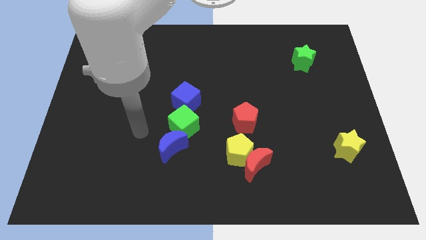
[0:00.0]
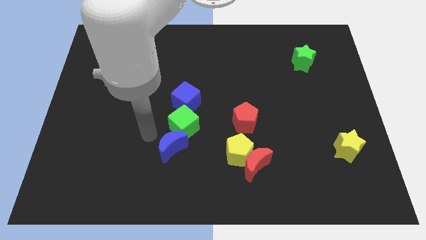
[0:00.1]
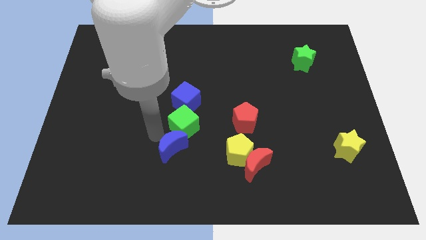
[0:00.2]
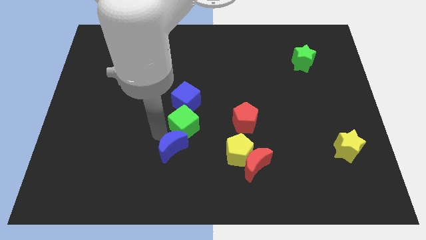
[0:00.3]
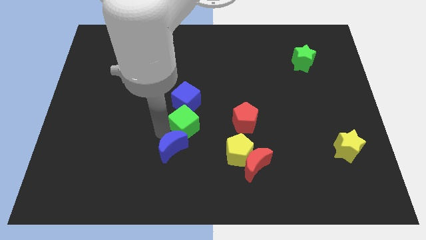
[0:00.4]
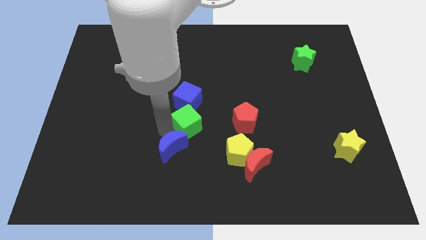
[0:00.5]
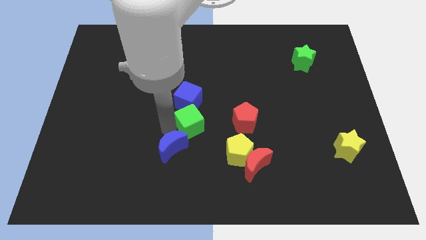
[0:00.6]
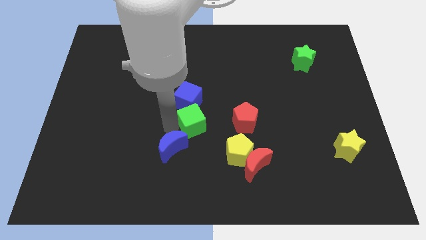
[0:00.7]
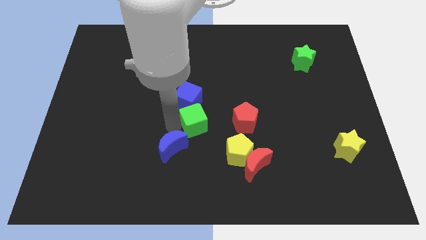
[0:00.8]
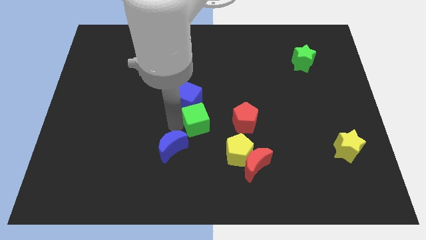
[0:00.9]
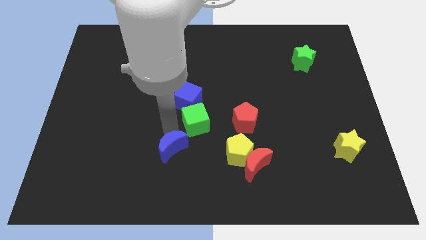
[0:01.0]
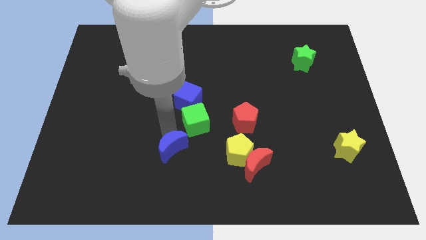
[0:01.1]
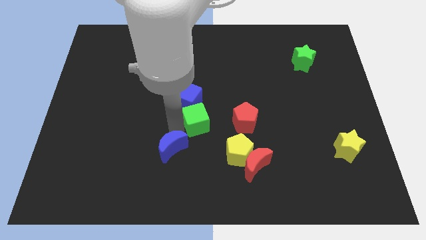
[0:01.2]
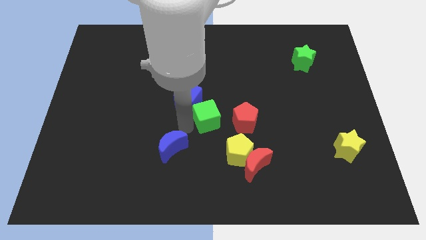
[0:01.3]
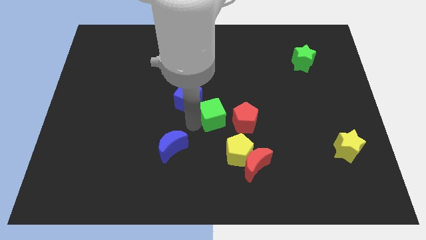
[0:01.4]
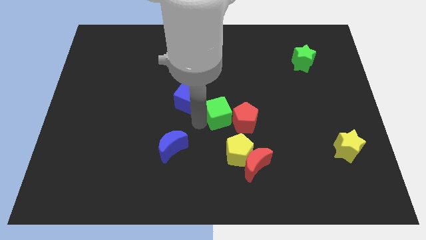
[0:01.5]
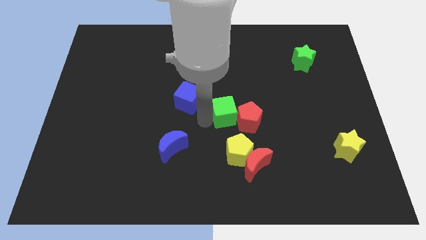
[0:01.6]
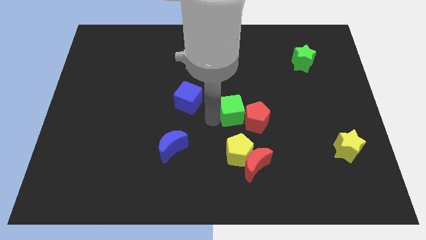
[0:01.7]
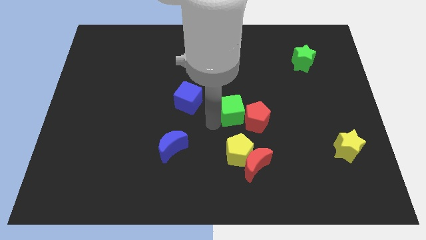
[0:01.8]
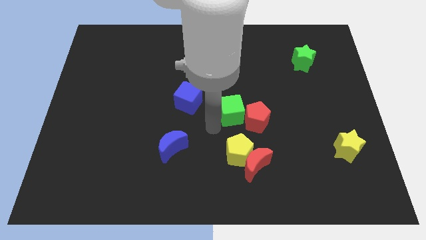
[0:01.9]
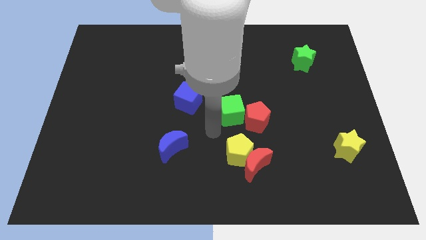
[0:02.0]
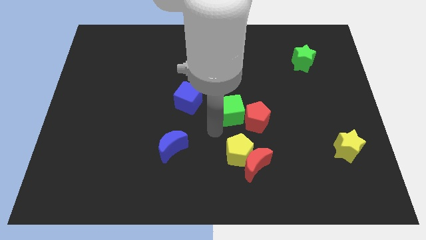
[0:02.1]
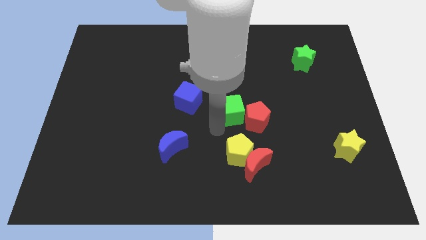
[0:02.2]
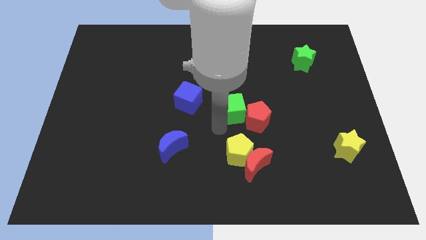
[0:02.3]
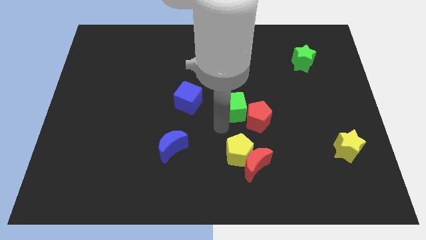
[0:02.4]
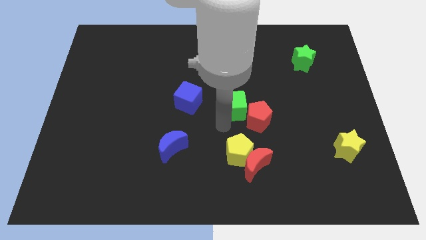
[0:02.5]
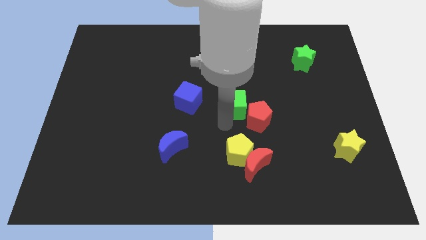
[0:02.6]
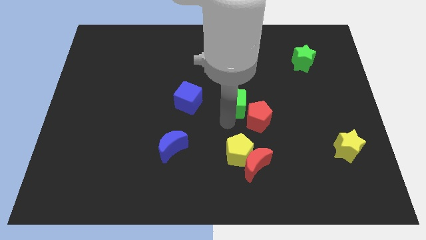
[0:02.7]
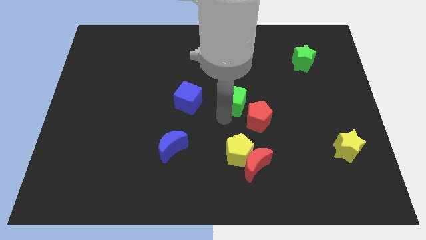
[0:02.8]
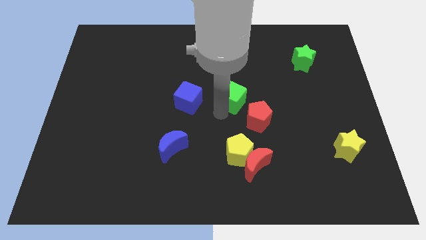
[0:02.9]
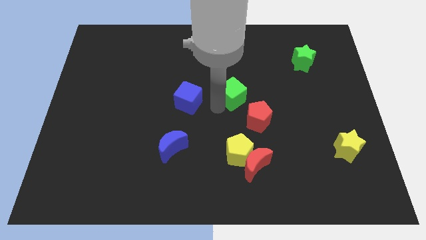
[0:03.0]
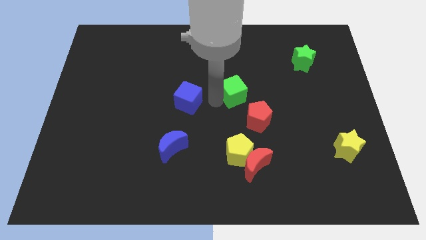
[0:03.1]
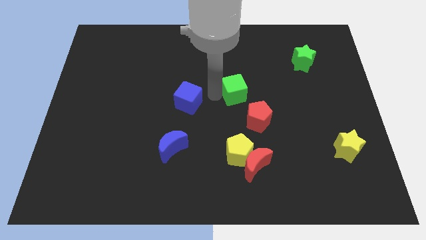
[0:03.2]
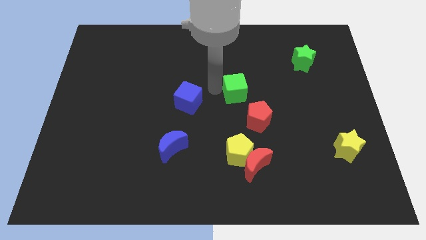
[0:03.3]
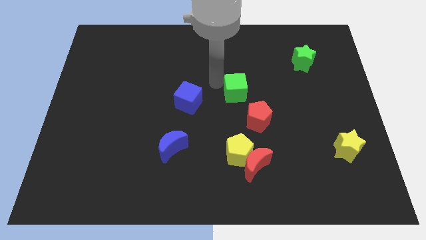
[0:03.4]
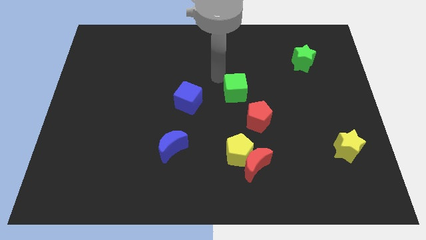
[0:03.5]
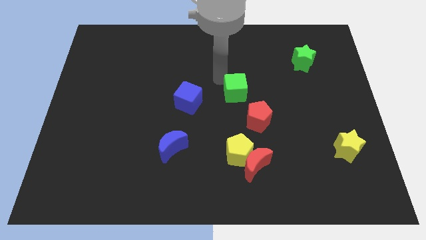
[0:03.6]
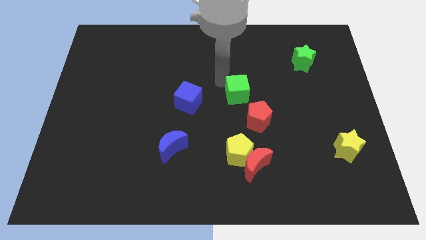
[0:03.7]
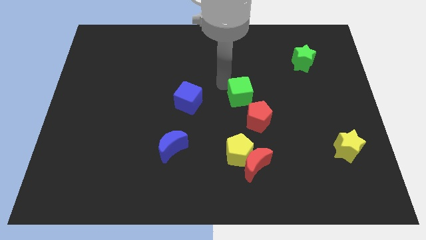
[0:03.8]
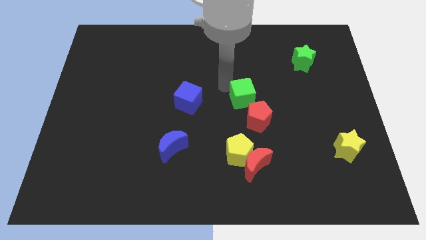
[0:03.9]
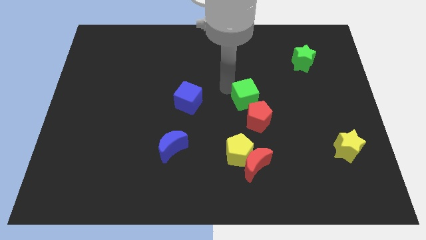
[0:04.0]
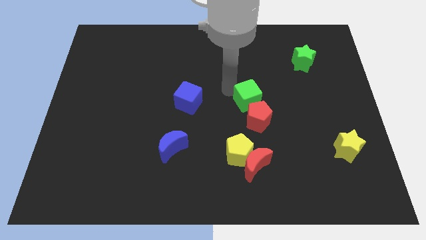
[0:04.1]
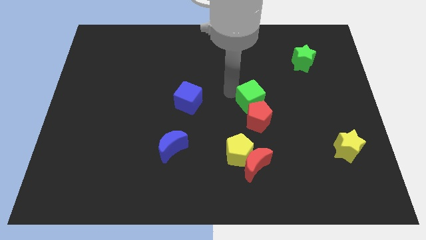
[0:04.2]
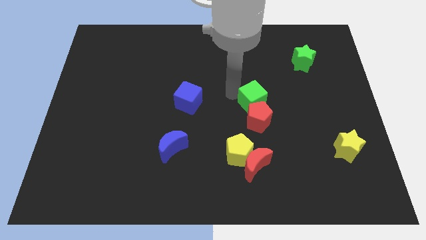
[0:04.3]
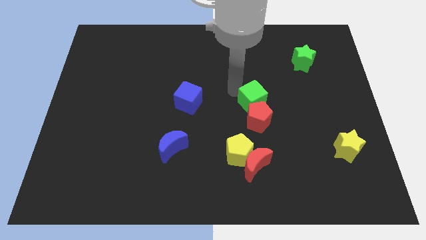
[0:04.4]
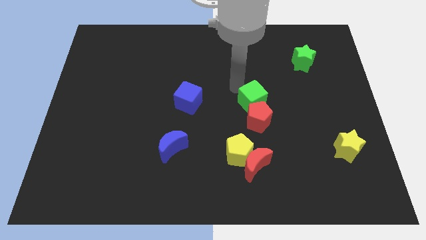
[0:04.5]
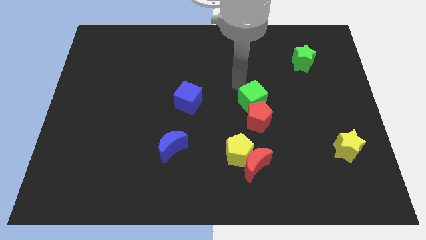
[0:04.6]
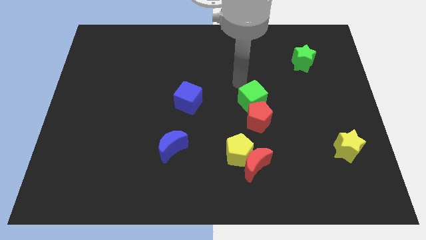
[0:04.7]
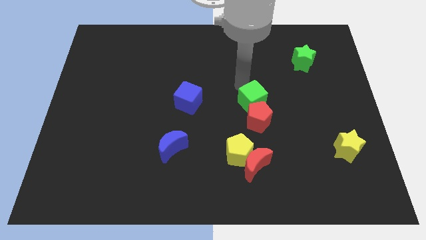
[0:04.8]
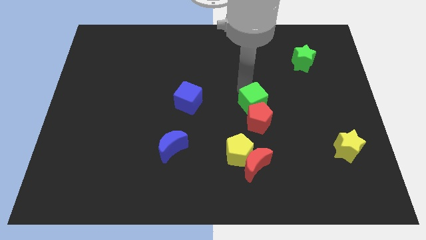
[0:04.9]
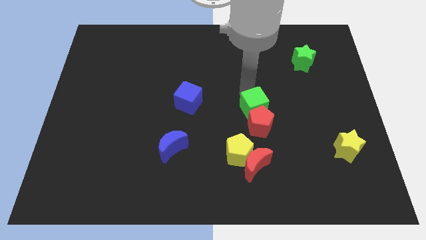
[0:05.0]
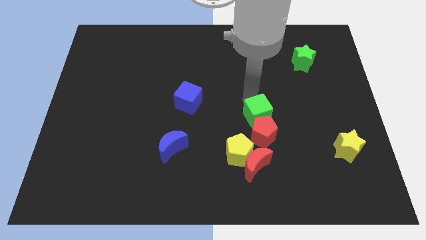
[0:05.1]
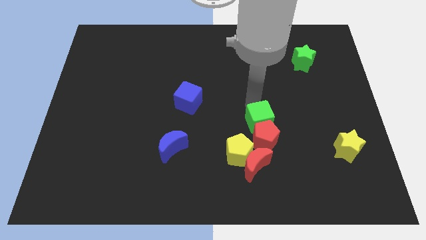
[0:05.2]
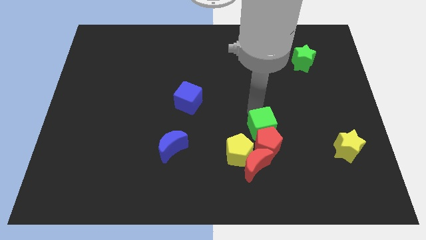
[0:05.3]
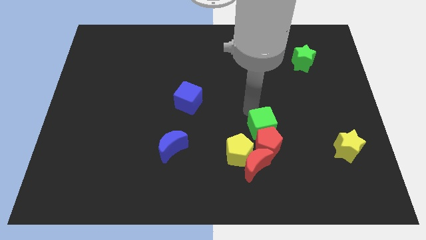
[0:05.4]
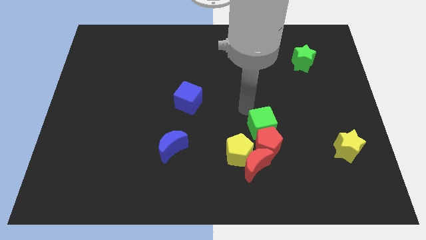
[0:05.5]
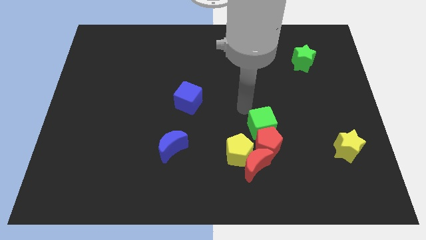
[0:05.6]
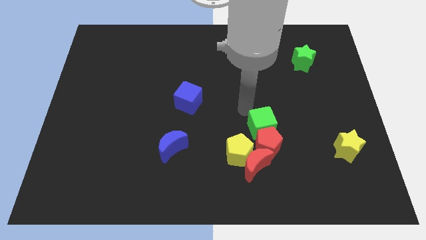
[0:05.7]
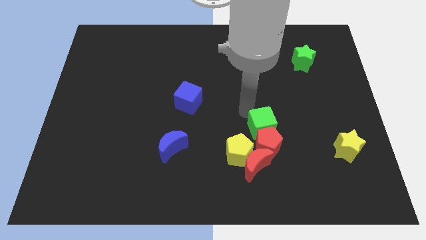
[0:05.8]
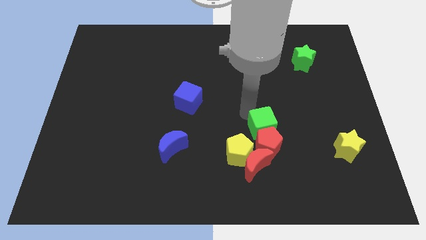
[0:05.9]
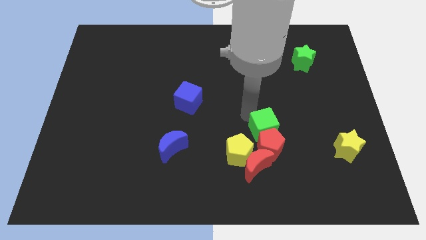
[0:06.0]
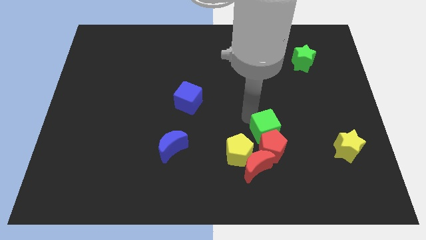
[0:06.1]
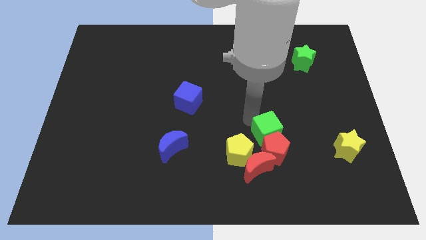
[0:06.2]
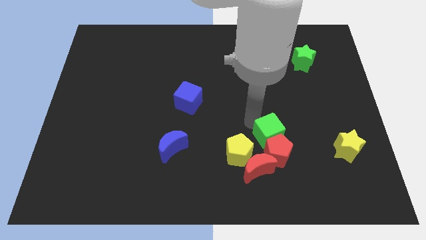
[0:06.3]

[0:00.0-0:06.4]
move the green cube to the right of the yellow pentagon

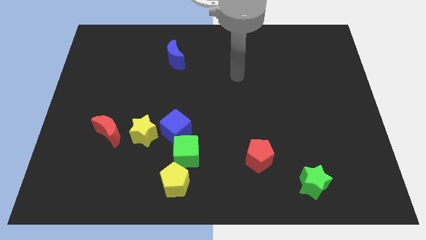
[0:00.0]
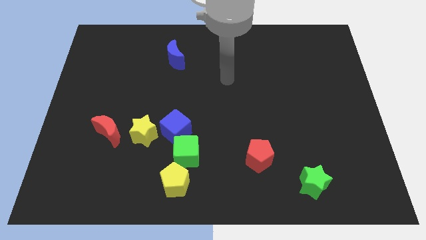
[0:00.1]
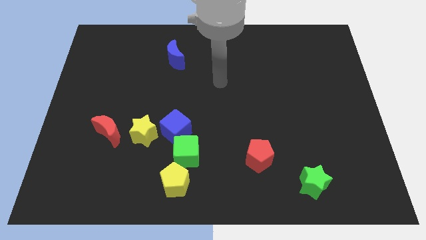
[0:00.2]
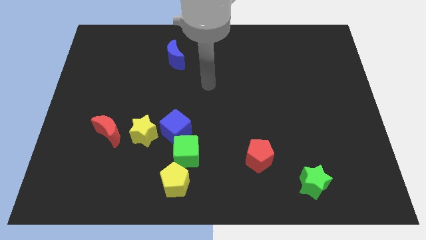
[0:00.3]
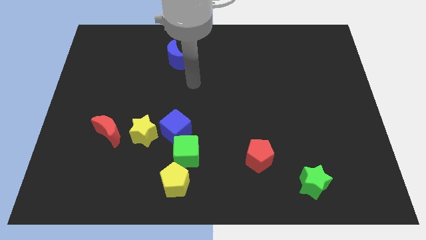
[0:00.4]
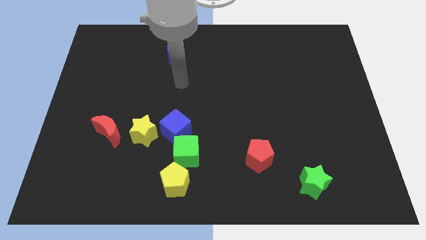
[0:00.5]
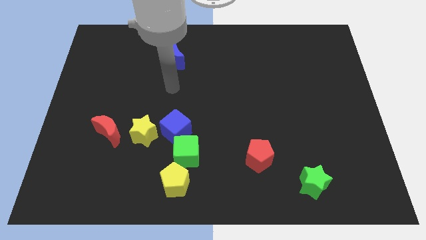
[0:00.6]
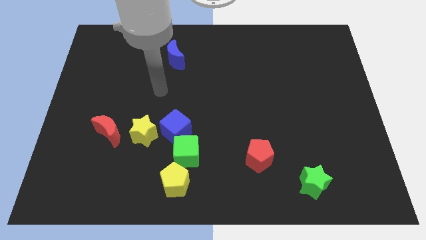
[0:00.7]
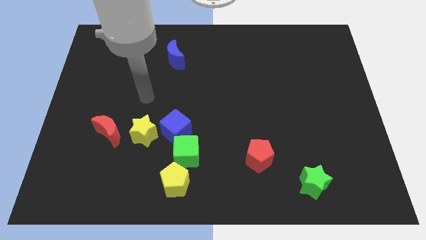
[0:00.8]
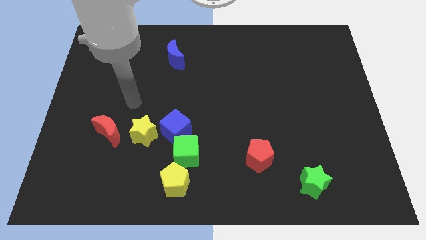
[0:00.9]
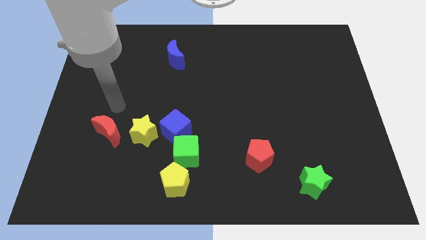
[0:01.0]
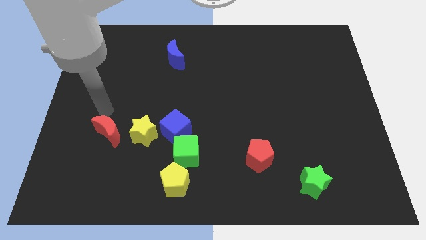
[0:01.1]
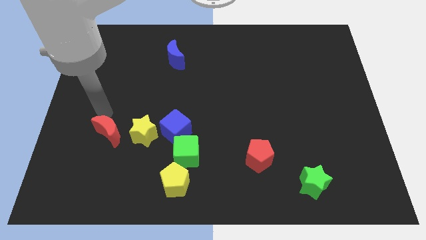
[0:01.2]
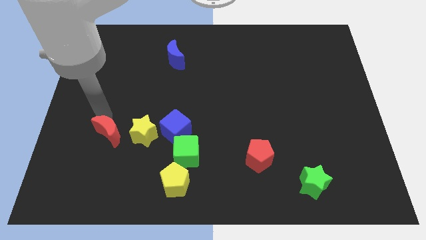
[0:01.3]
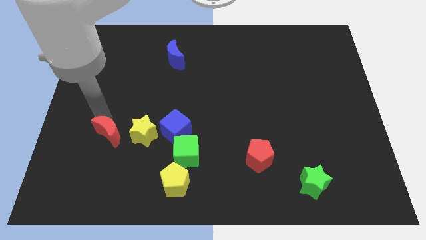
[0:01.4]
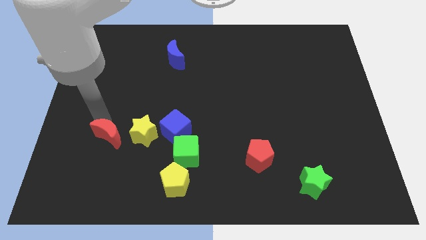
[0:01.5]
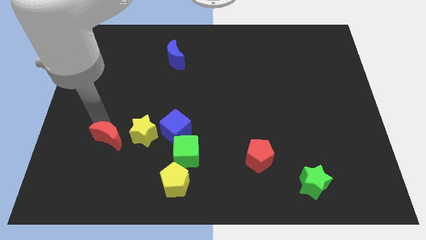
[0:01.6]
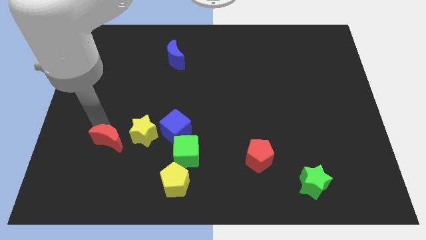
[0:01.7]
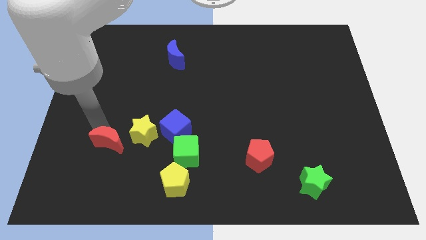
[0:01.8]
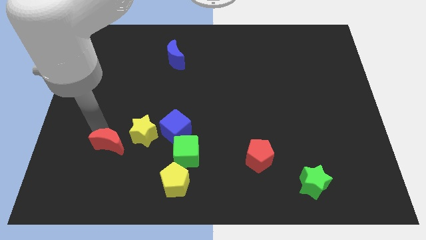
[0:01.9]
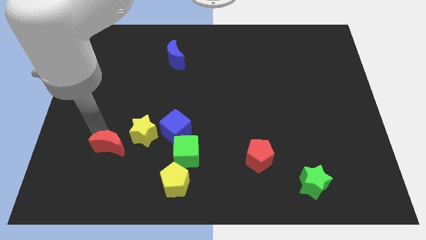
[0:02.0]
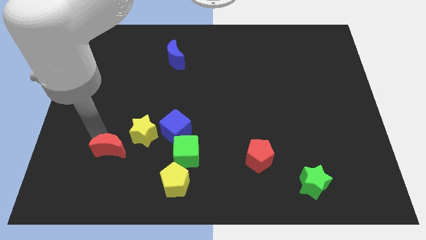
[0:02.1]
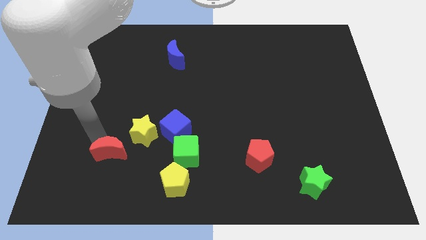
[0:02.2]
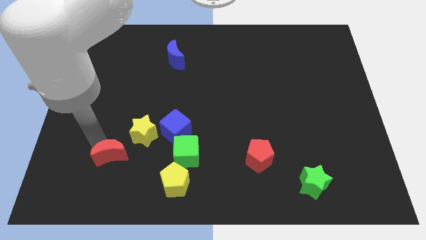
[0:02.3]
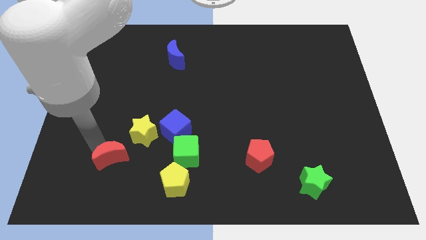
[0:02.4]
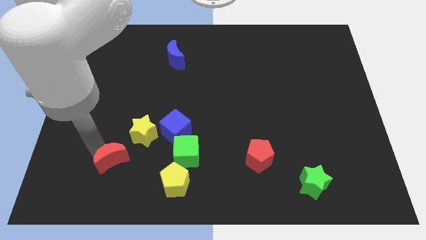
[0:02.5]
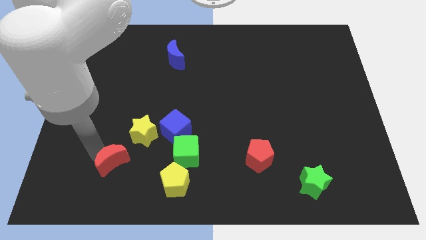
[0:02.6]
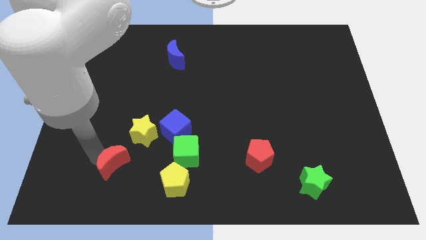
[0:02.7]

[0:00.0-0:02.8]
slide the red moon just left of the yellow pentagon
